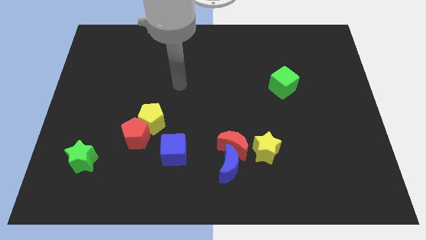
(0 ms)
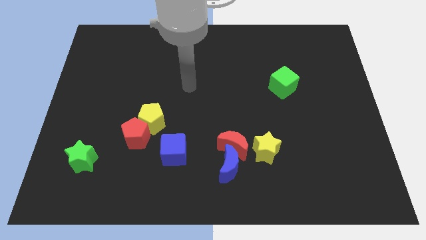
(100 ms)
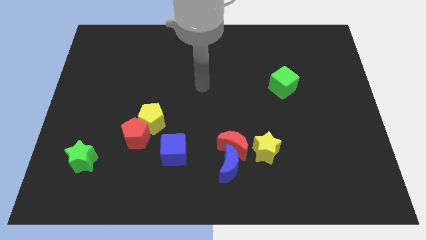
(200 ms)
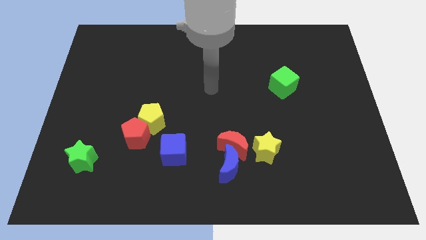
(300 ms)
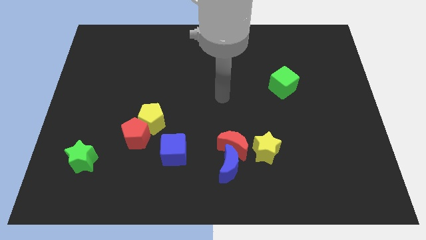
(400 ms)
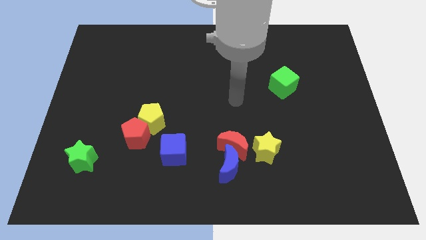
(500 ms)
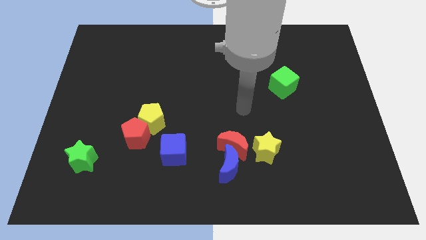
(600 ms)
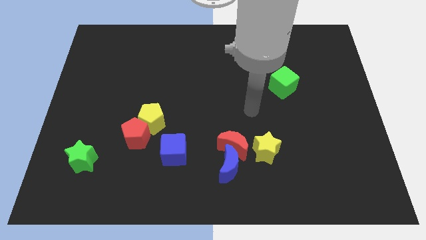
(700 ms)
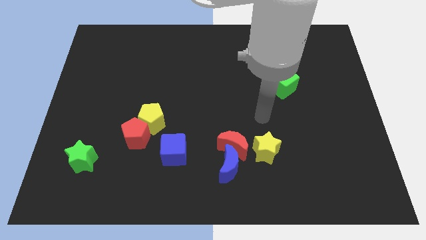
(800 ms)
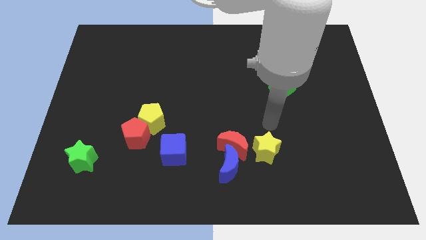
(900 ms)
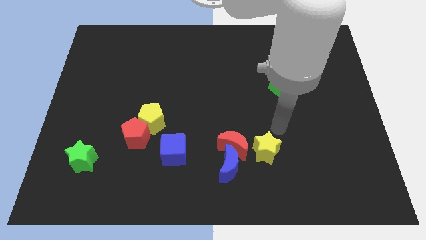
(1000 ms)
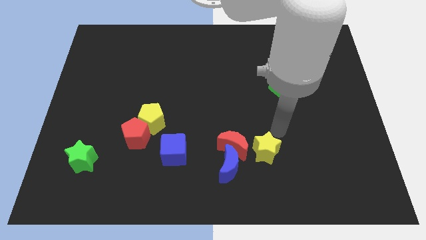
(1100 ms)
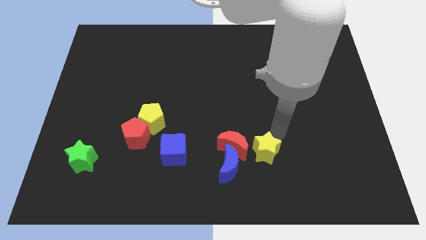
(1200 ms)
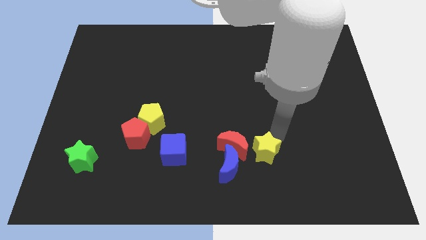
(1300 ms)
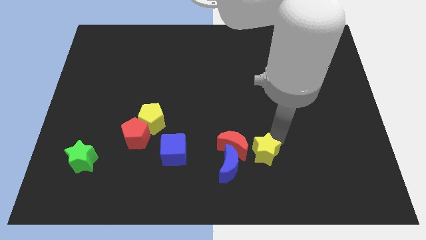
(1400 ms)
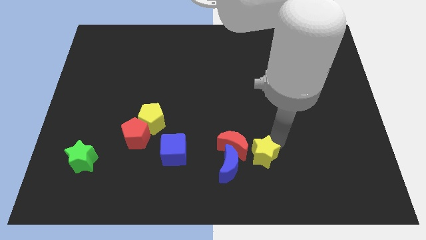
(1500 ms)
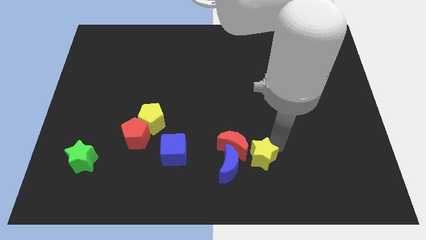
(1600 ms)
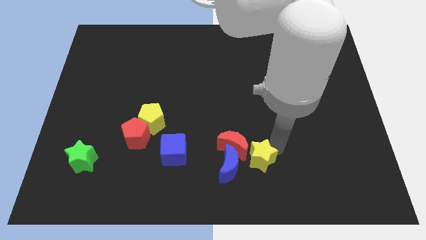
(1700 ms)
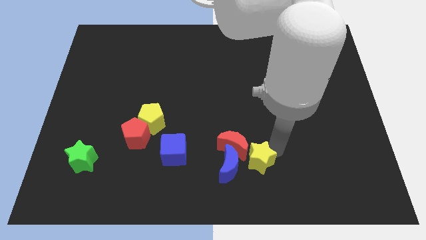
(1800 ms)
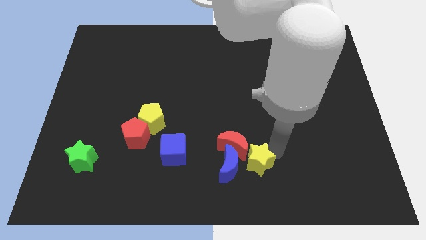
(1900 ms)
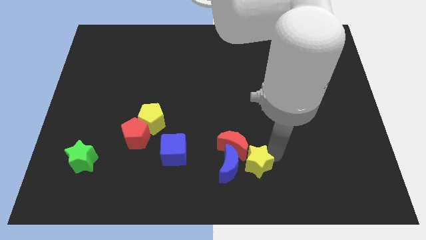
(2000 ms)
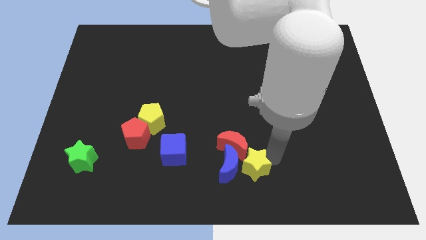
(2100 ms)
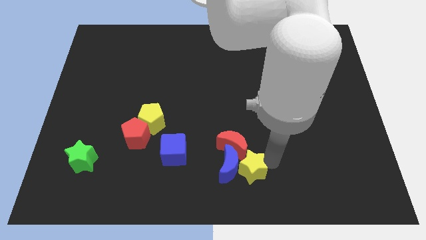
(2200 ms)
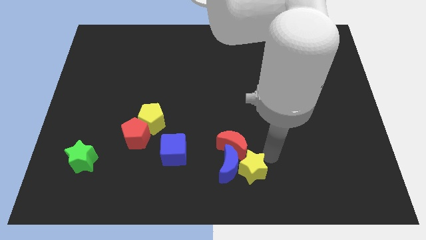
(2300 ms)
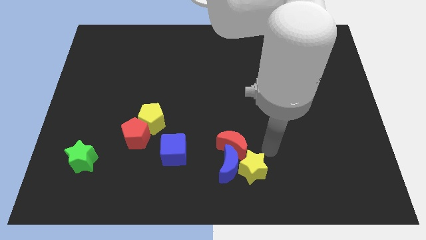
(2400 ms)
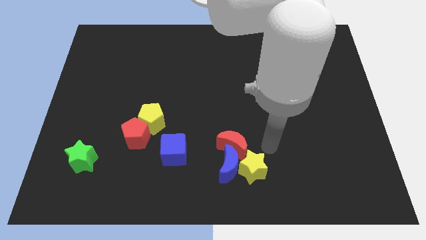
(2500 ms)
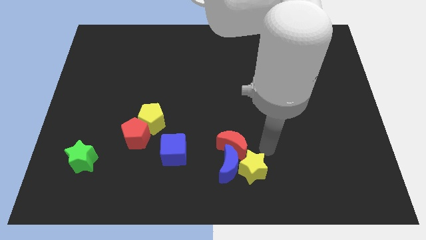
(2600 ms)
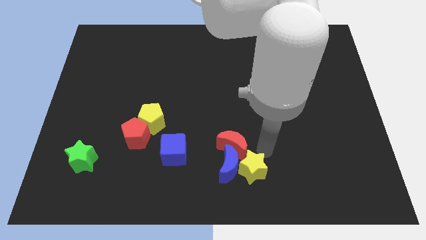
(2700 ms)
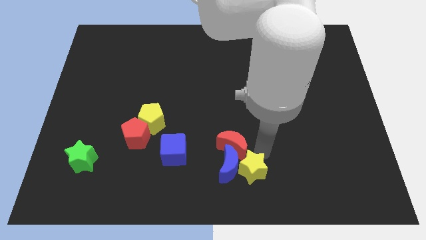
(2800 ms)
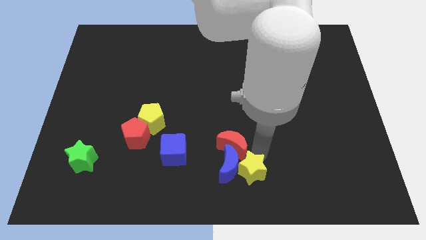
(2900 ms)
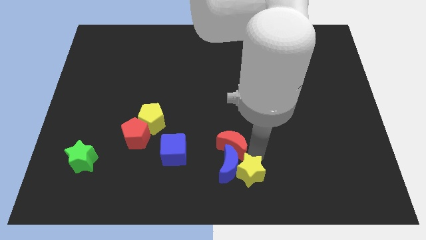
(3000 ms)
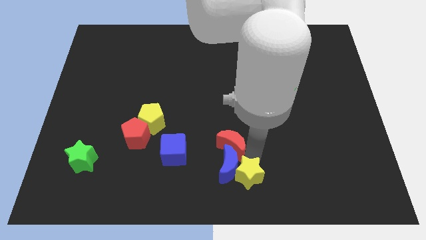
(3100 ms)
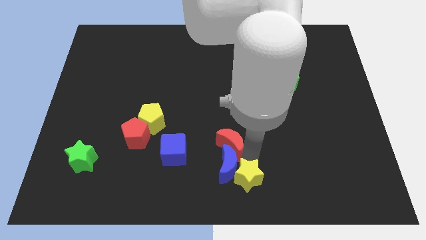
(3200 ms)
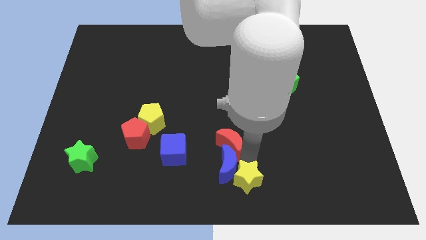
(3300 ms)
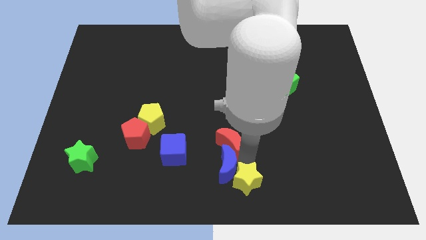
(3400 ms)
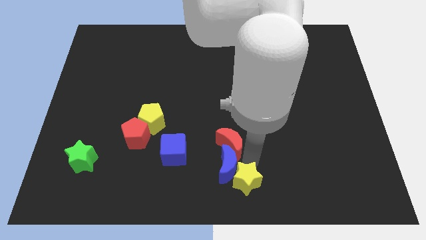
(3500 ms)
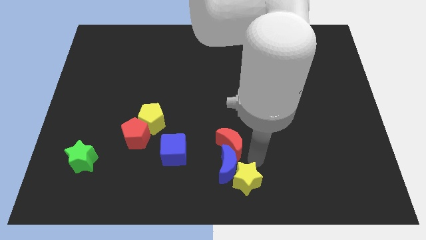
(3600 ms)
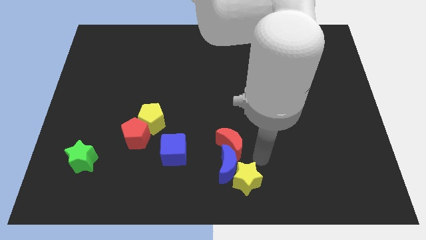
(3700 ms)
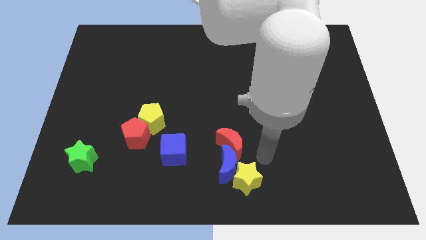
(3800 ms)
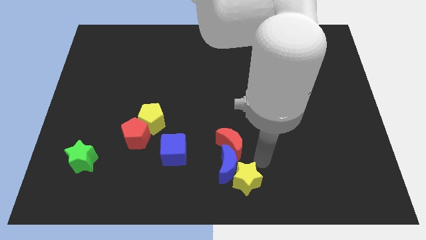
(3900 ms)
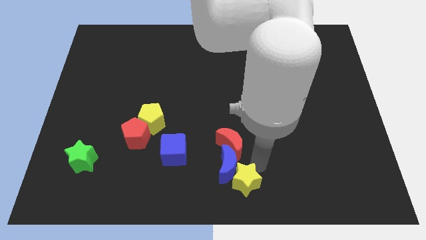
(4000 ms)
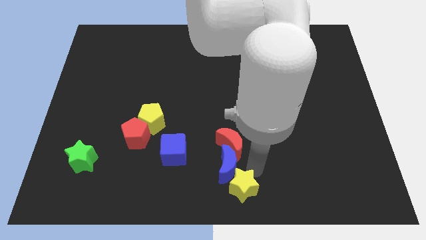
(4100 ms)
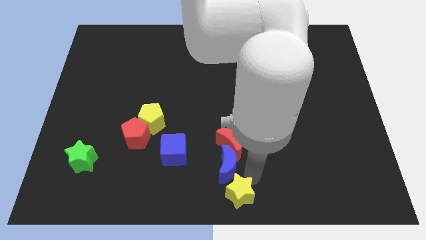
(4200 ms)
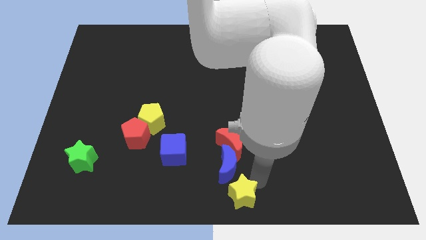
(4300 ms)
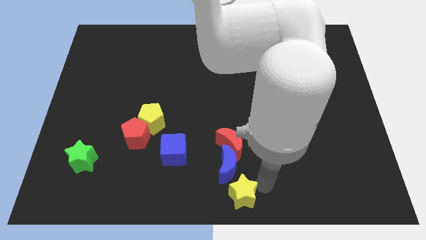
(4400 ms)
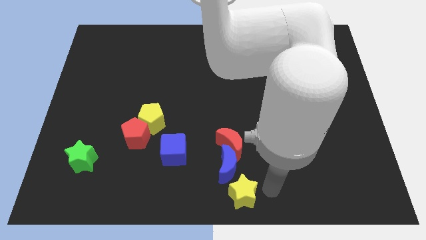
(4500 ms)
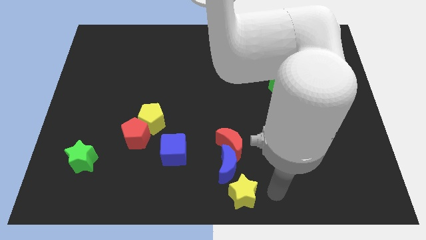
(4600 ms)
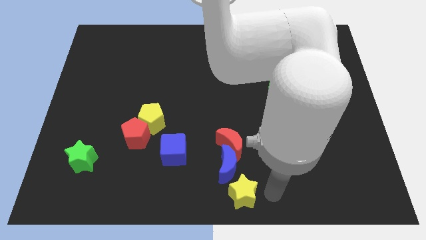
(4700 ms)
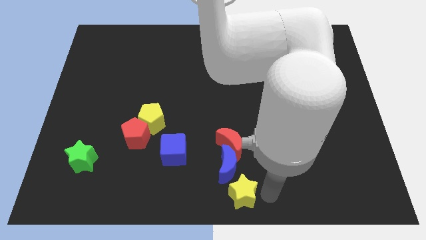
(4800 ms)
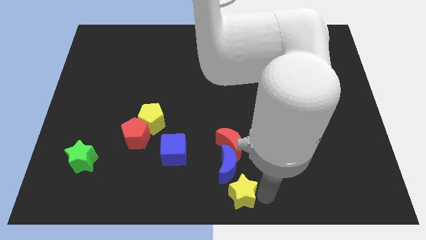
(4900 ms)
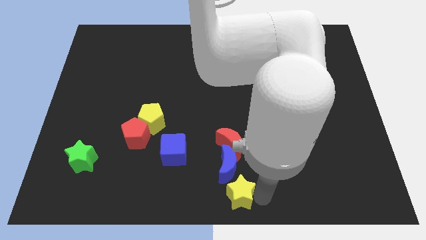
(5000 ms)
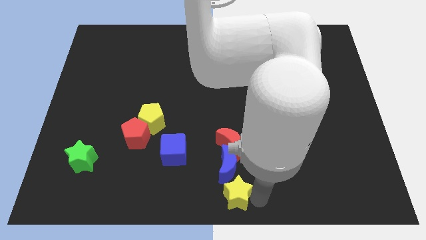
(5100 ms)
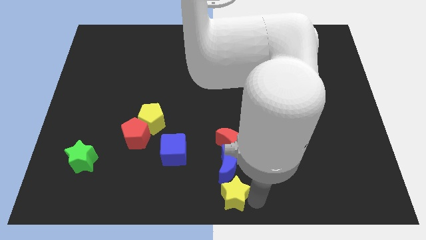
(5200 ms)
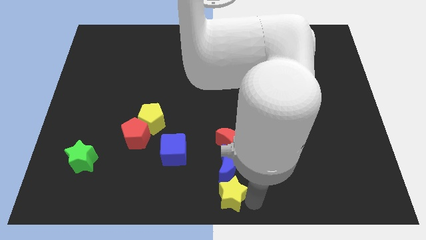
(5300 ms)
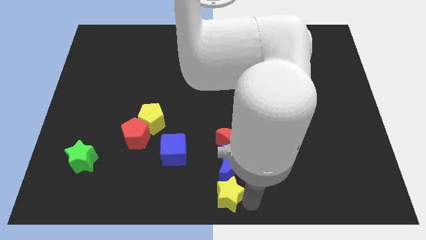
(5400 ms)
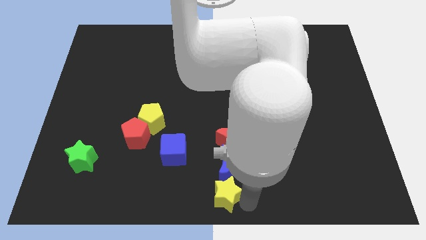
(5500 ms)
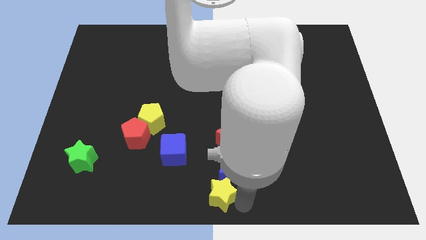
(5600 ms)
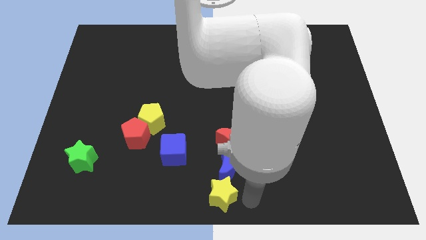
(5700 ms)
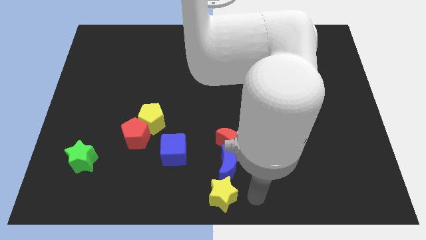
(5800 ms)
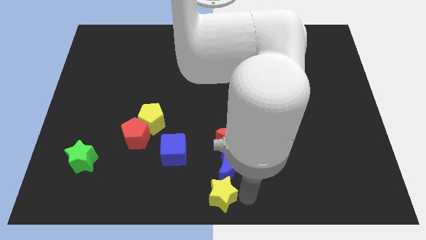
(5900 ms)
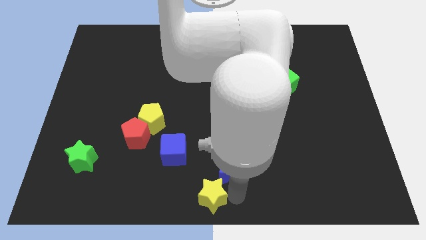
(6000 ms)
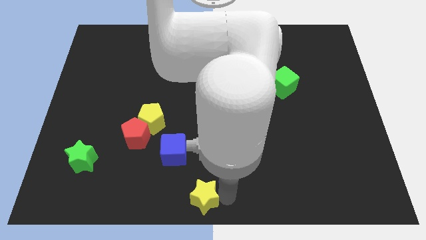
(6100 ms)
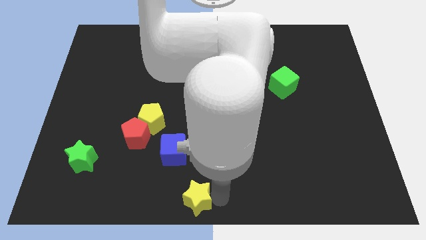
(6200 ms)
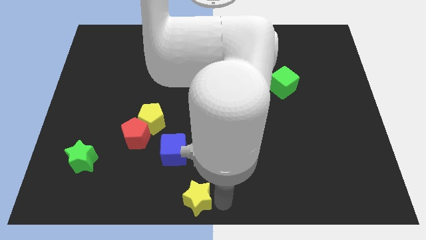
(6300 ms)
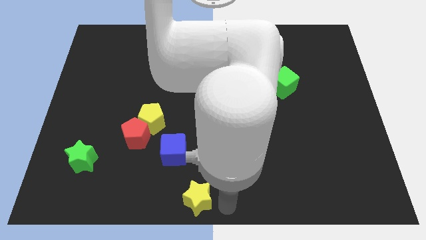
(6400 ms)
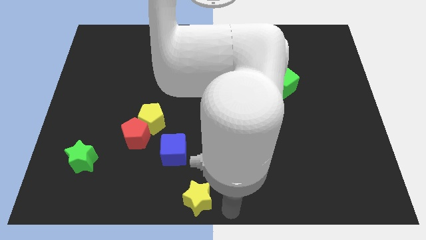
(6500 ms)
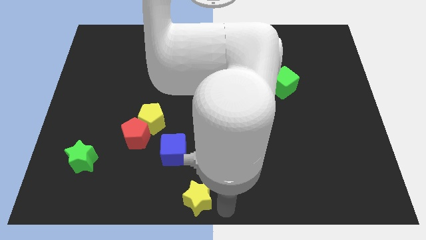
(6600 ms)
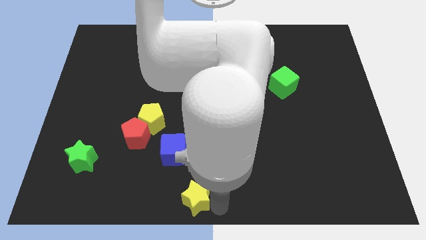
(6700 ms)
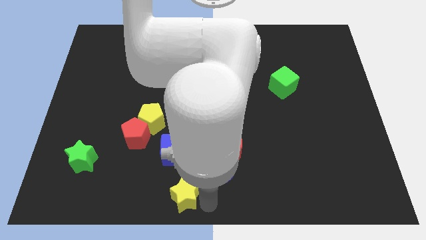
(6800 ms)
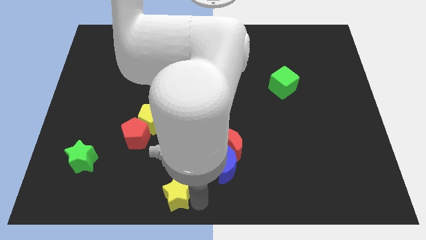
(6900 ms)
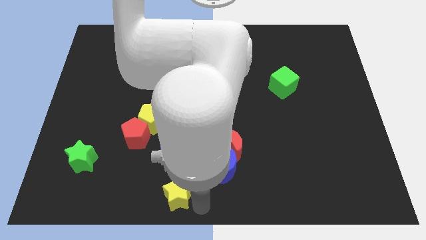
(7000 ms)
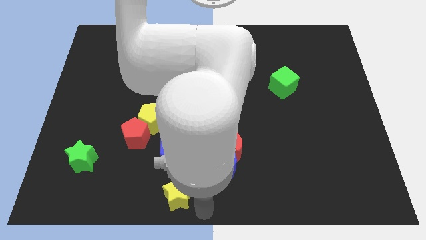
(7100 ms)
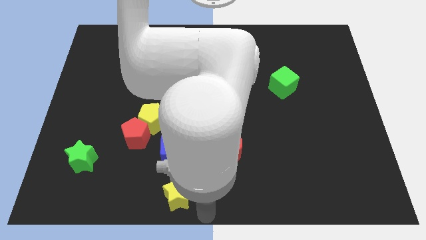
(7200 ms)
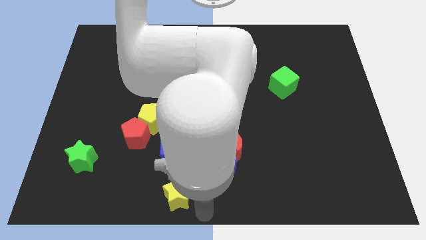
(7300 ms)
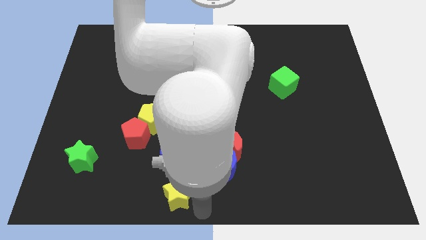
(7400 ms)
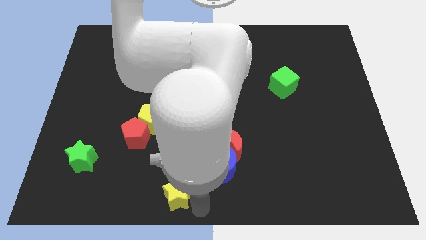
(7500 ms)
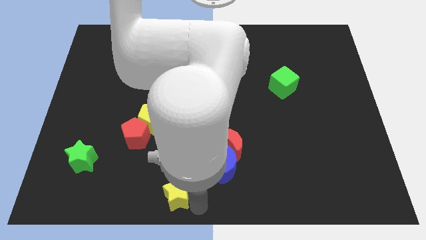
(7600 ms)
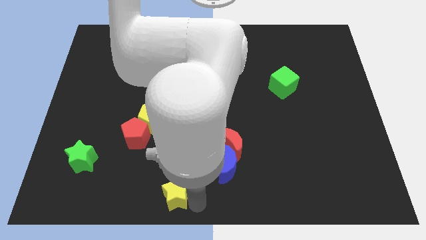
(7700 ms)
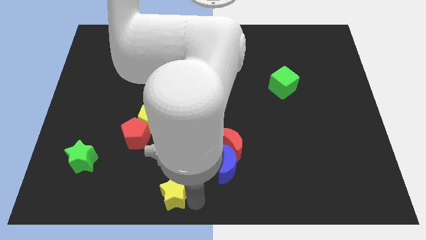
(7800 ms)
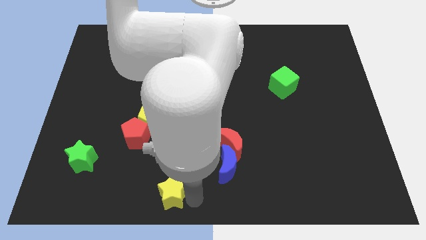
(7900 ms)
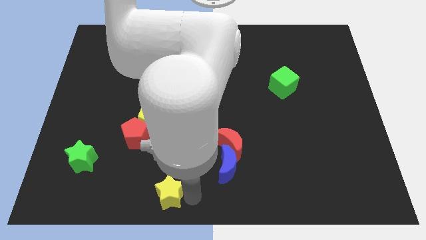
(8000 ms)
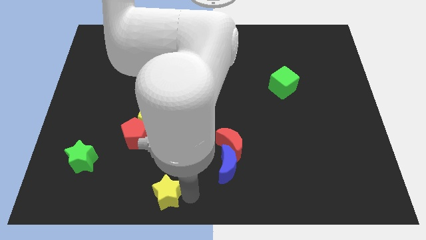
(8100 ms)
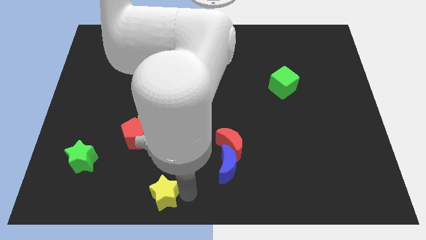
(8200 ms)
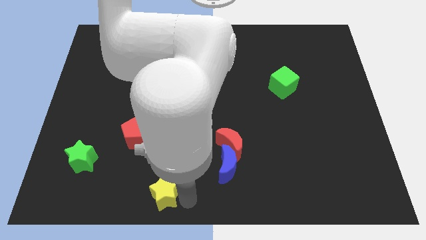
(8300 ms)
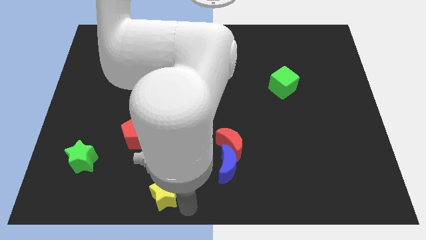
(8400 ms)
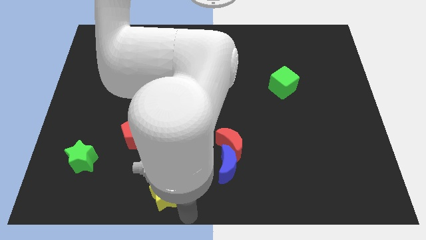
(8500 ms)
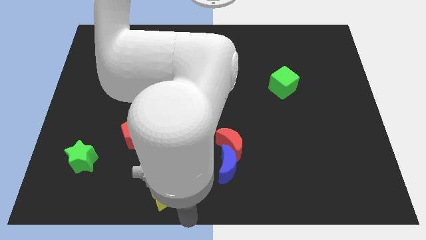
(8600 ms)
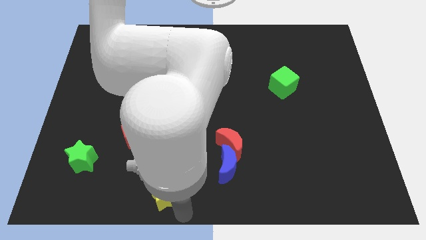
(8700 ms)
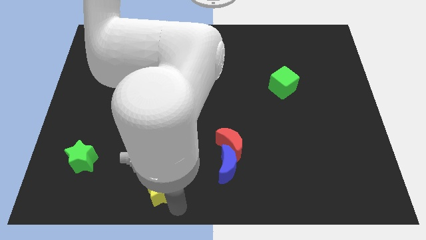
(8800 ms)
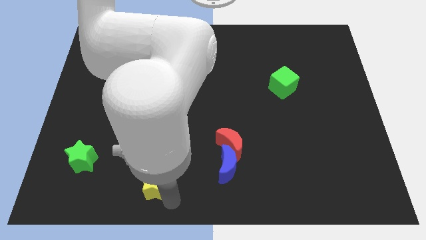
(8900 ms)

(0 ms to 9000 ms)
move the yellow star to the bottom left of the blue cube
